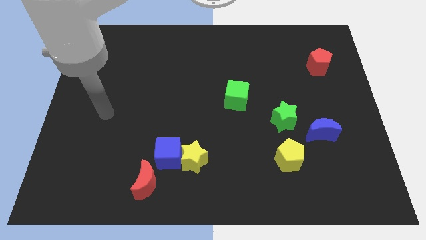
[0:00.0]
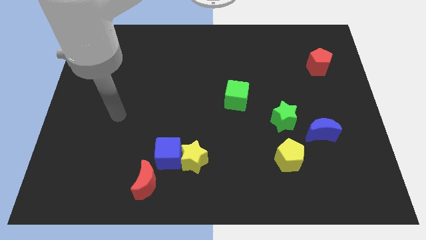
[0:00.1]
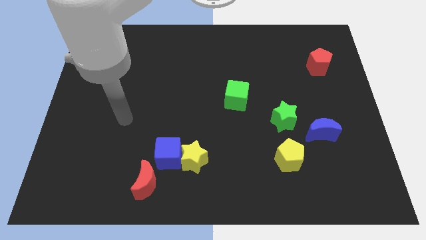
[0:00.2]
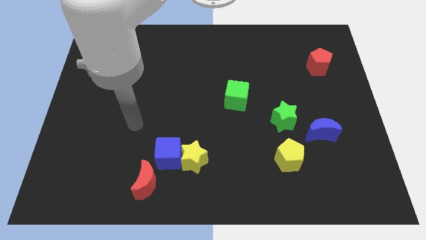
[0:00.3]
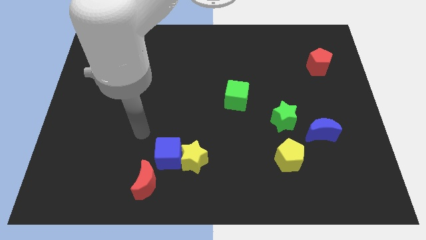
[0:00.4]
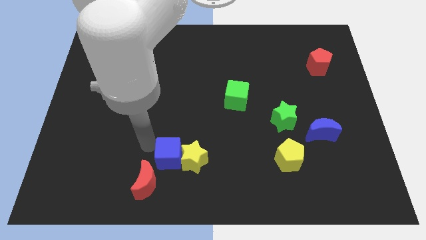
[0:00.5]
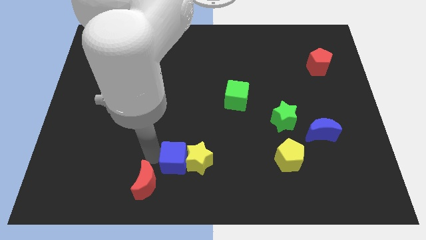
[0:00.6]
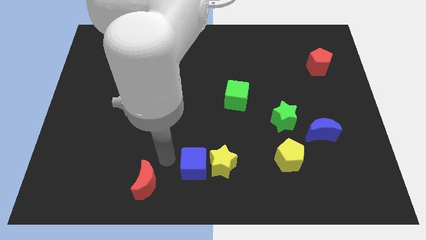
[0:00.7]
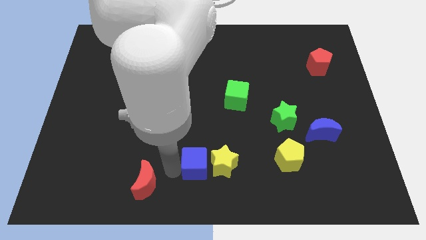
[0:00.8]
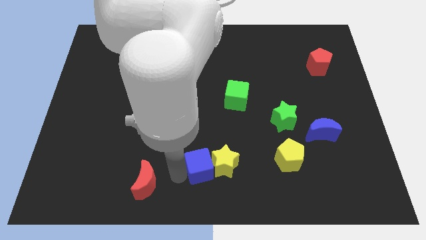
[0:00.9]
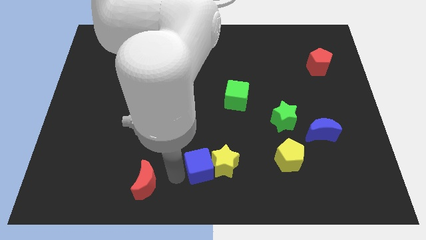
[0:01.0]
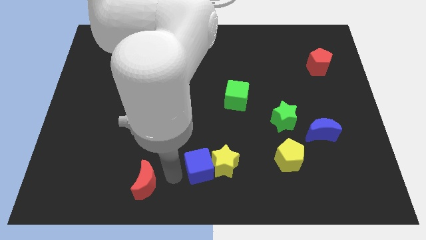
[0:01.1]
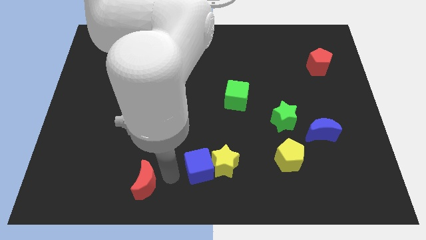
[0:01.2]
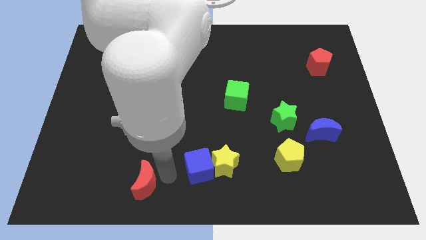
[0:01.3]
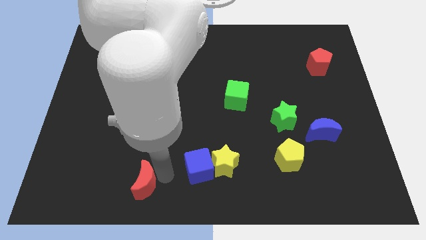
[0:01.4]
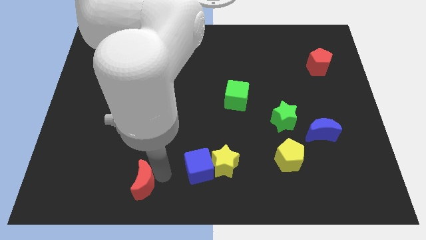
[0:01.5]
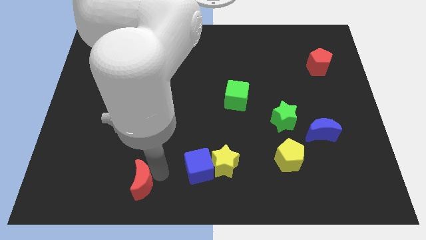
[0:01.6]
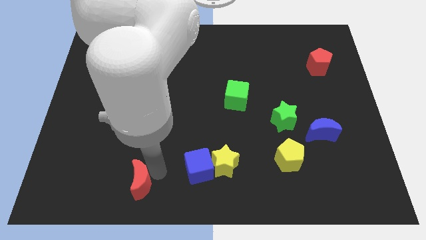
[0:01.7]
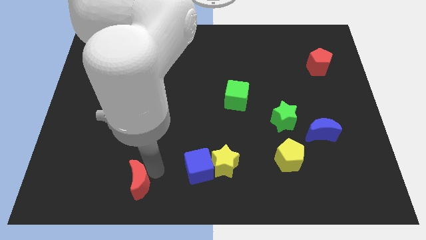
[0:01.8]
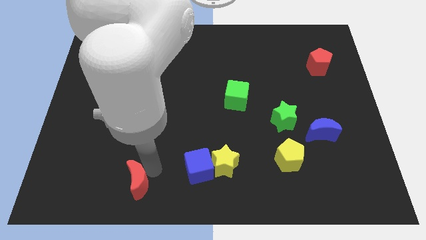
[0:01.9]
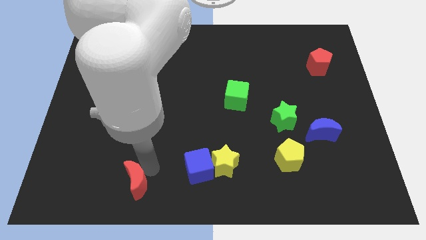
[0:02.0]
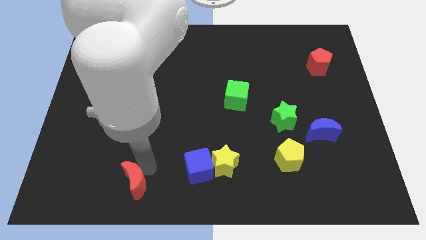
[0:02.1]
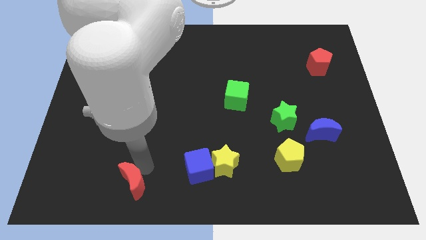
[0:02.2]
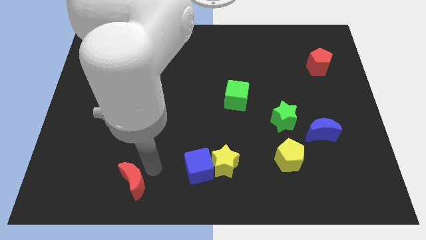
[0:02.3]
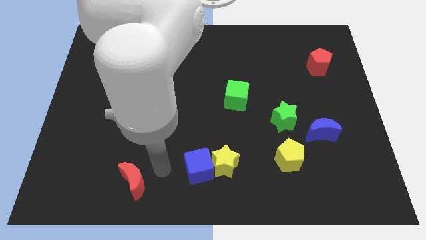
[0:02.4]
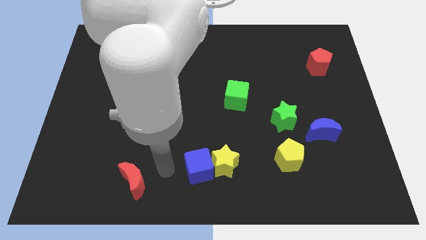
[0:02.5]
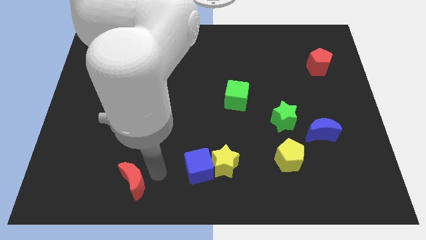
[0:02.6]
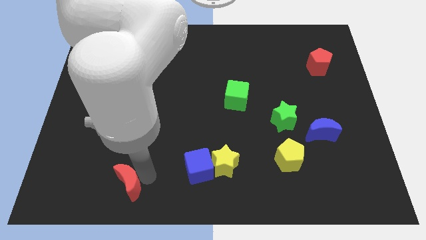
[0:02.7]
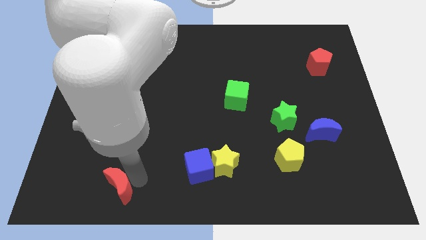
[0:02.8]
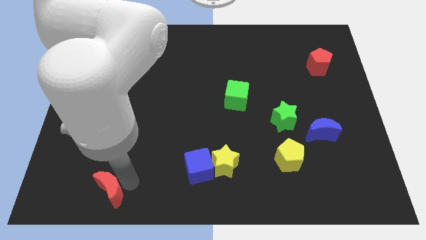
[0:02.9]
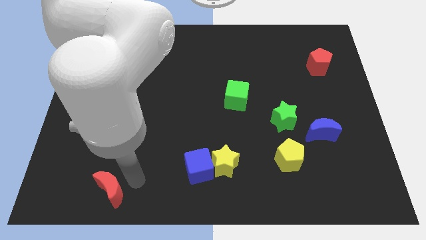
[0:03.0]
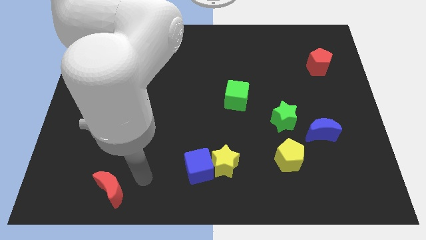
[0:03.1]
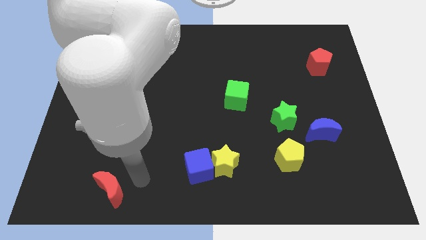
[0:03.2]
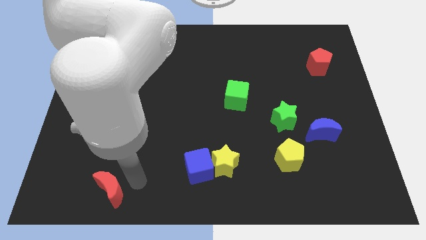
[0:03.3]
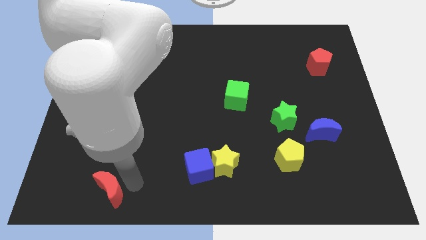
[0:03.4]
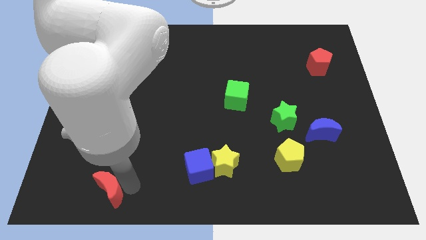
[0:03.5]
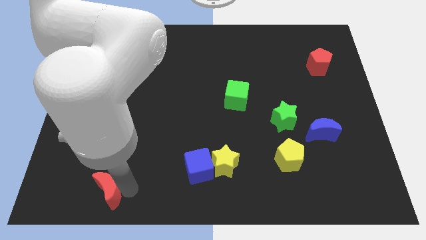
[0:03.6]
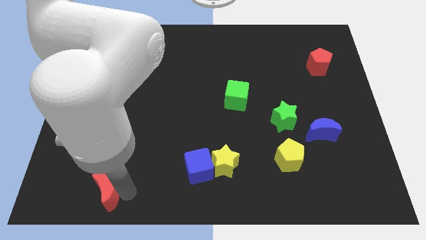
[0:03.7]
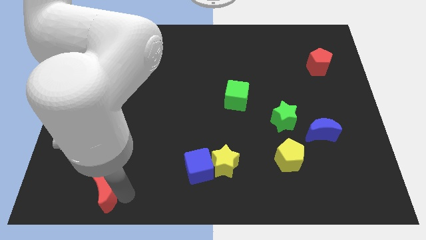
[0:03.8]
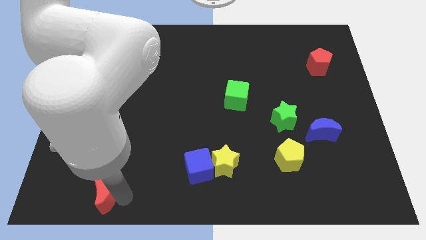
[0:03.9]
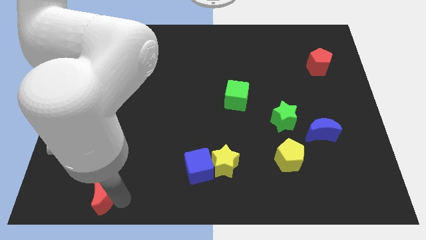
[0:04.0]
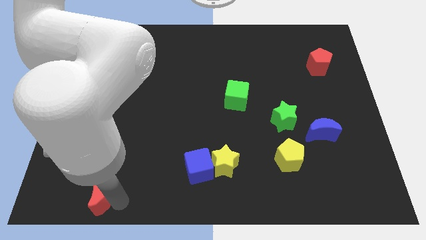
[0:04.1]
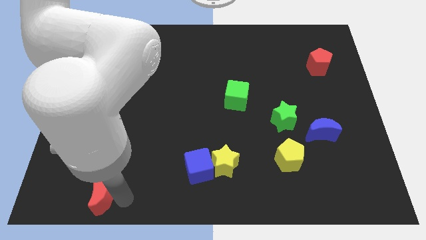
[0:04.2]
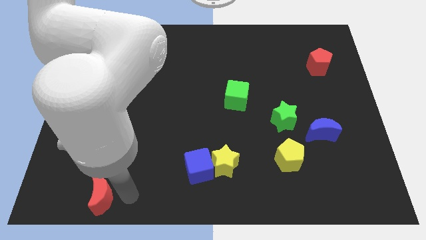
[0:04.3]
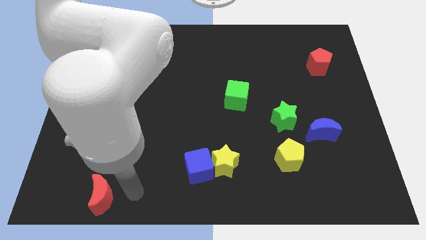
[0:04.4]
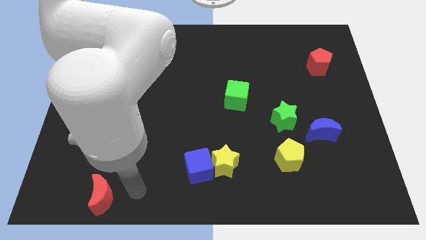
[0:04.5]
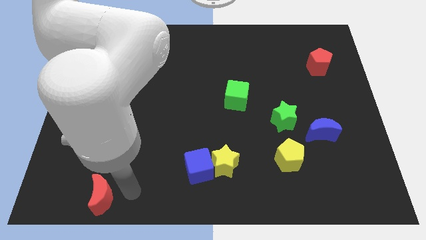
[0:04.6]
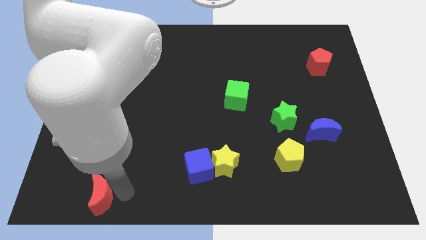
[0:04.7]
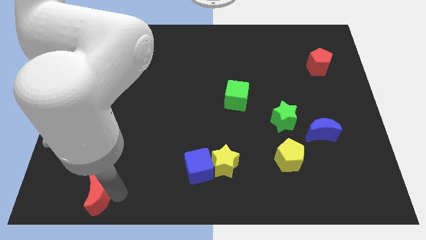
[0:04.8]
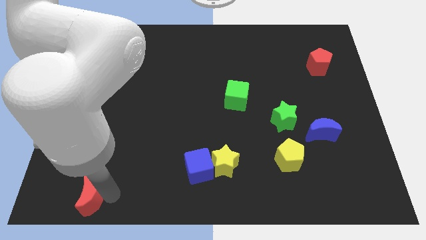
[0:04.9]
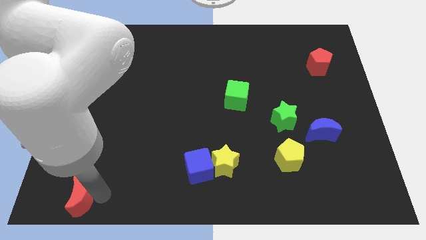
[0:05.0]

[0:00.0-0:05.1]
put the red moon to the bottom left of the board

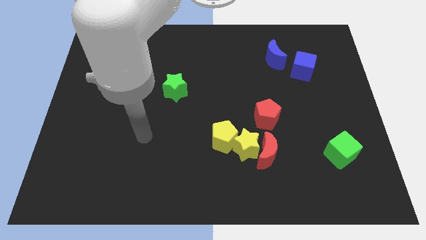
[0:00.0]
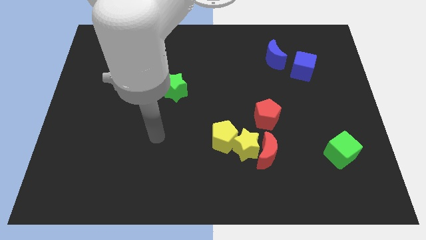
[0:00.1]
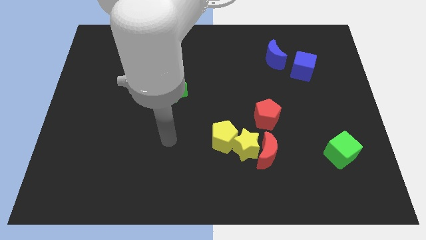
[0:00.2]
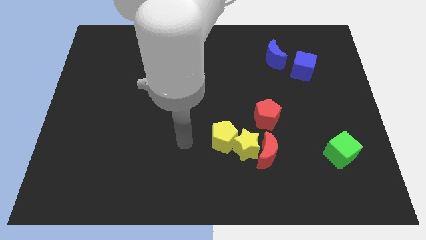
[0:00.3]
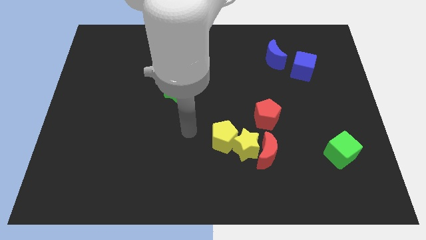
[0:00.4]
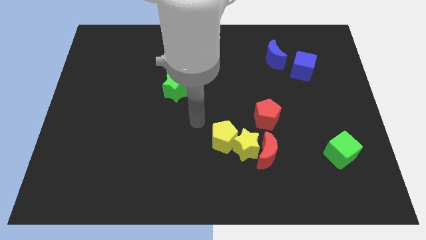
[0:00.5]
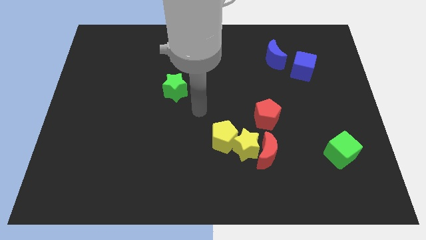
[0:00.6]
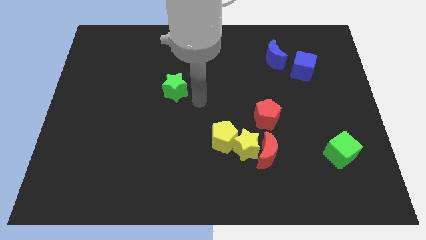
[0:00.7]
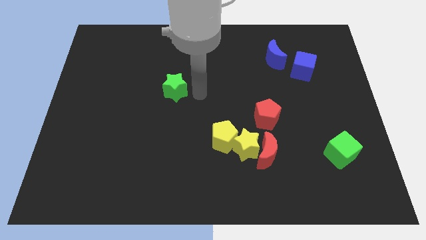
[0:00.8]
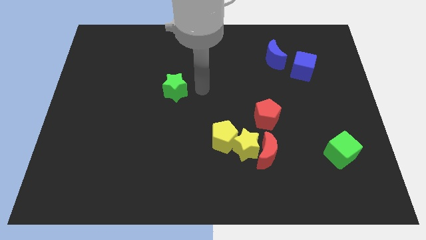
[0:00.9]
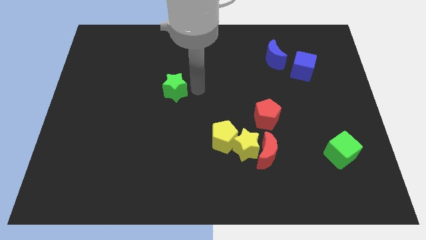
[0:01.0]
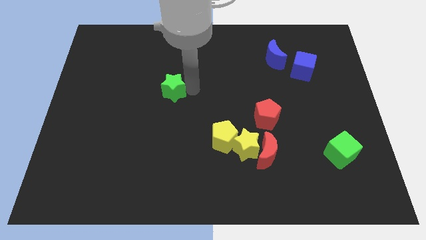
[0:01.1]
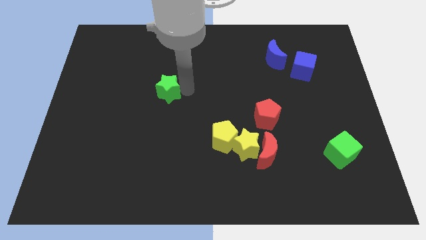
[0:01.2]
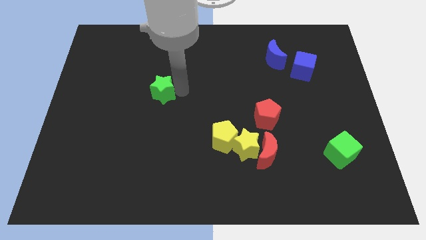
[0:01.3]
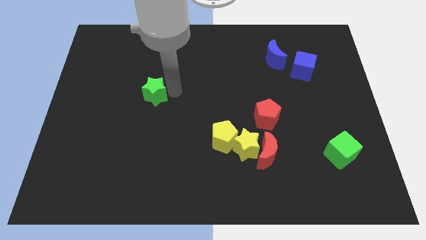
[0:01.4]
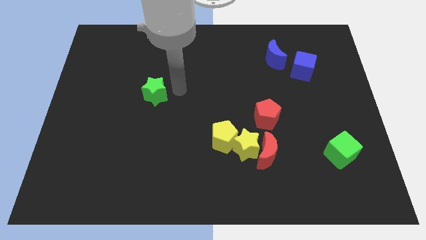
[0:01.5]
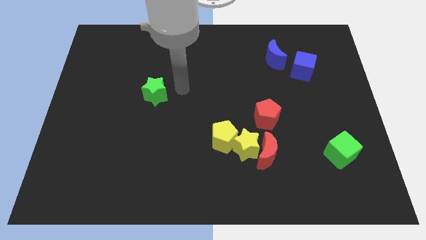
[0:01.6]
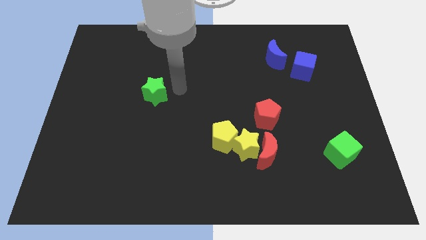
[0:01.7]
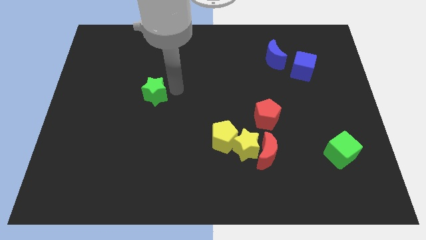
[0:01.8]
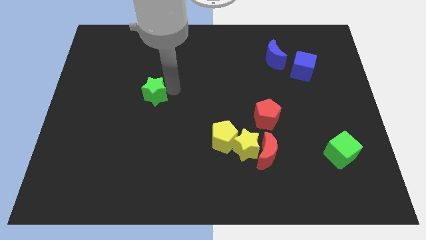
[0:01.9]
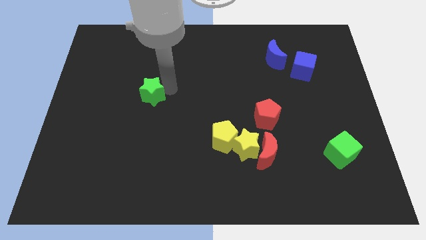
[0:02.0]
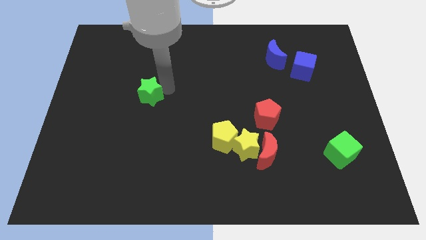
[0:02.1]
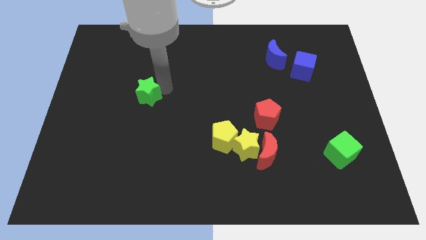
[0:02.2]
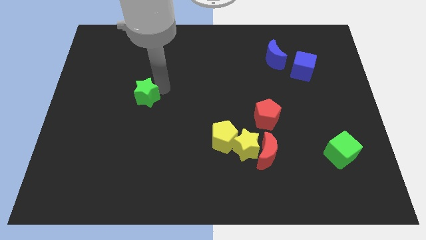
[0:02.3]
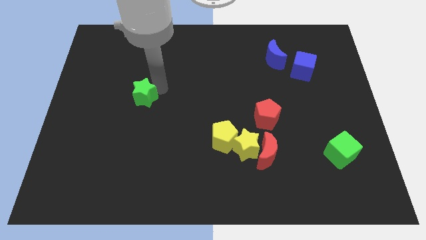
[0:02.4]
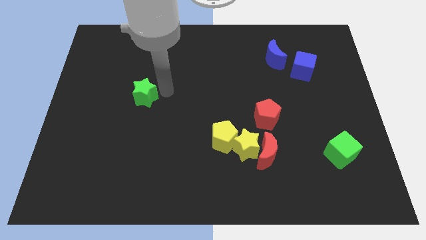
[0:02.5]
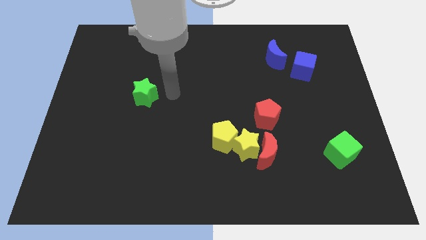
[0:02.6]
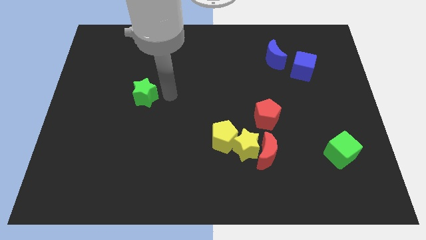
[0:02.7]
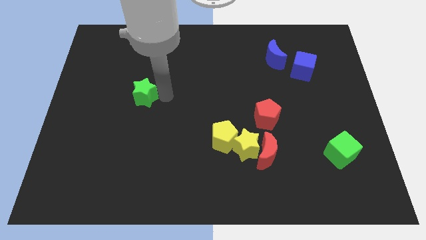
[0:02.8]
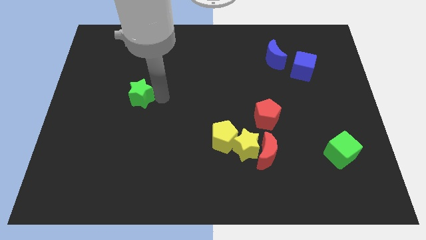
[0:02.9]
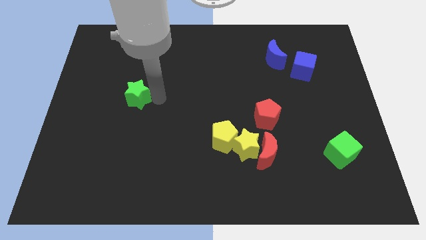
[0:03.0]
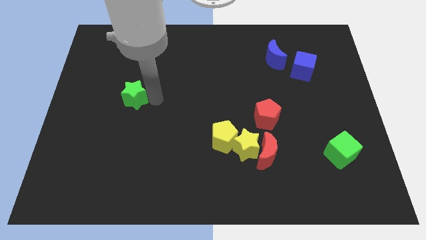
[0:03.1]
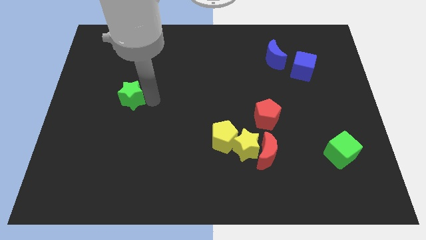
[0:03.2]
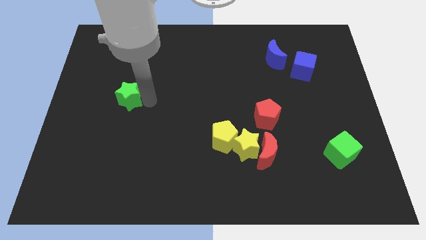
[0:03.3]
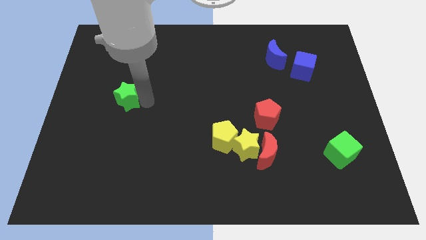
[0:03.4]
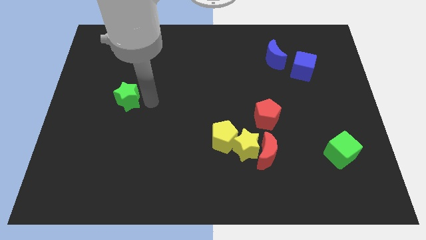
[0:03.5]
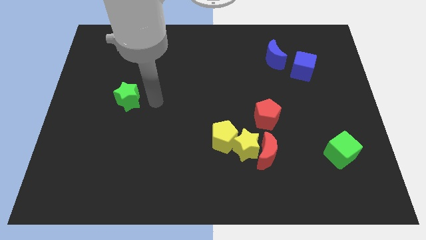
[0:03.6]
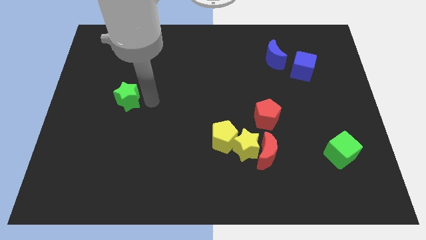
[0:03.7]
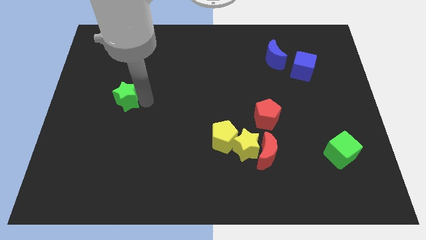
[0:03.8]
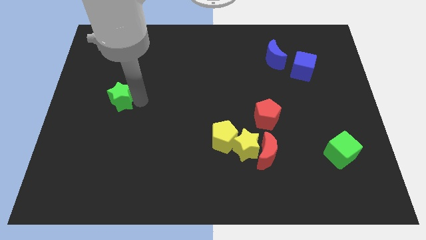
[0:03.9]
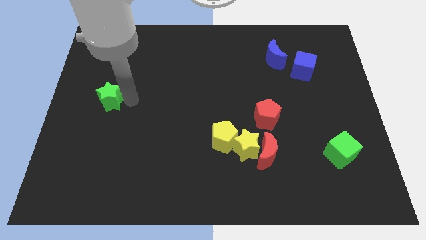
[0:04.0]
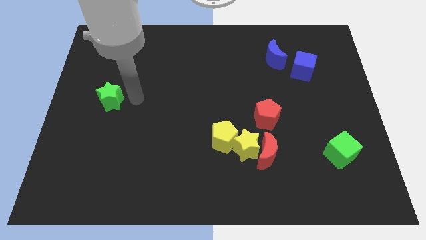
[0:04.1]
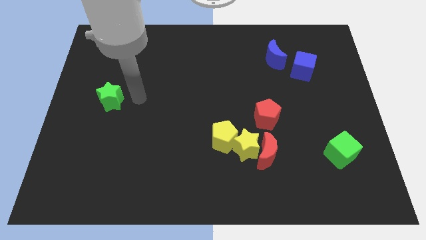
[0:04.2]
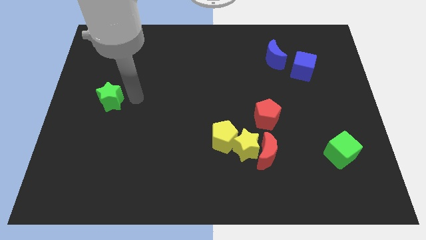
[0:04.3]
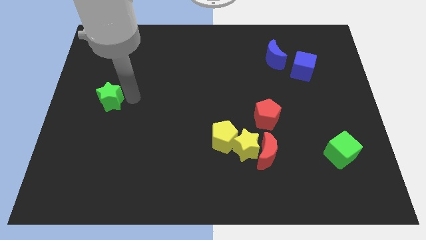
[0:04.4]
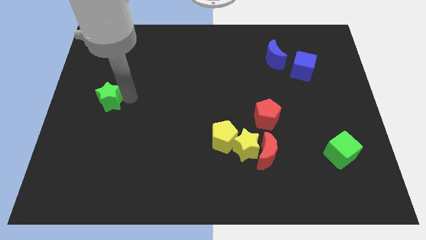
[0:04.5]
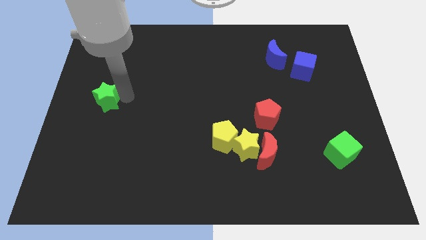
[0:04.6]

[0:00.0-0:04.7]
put the green star to the left side of the board
